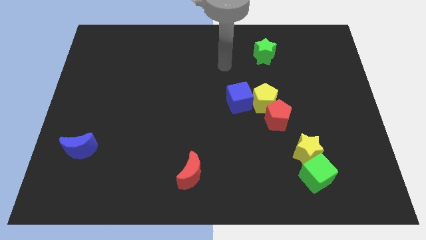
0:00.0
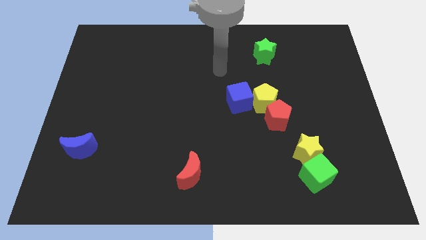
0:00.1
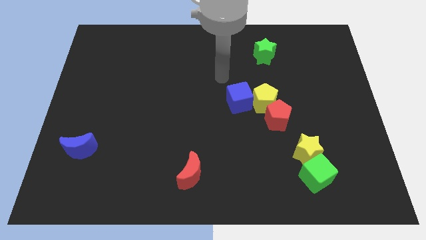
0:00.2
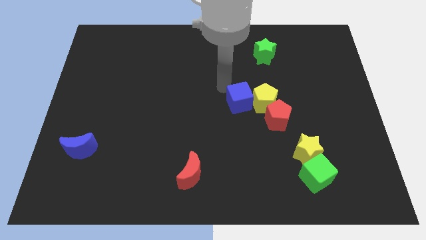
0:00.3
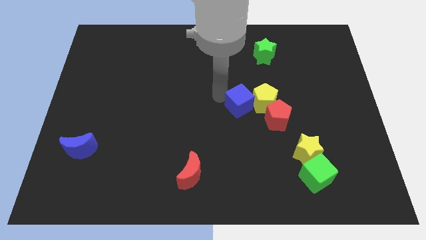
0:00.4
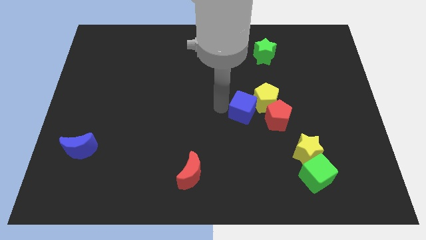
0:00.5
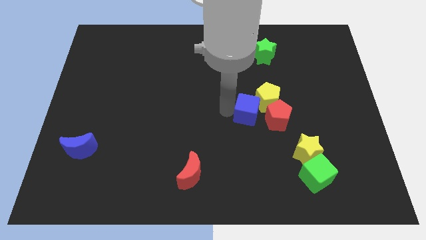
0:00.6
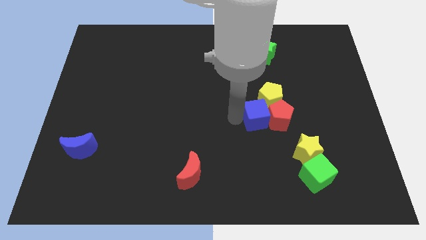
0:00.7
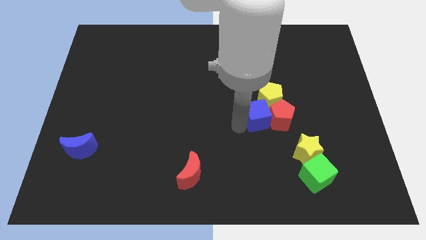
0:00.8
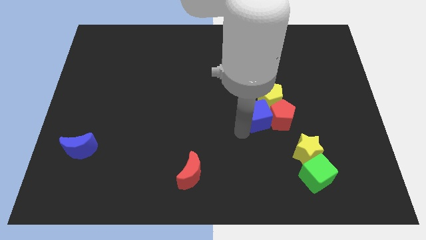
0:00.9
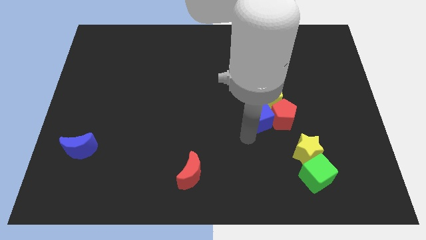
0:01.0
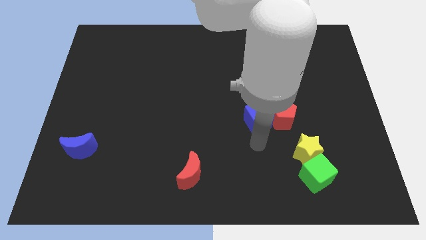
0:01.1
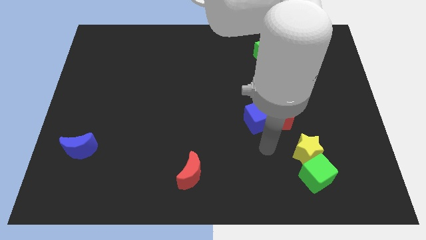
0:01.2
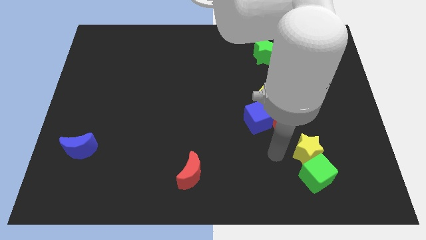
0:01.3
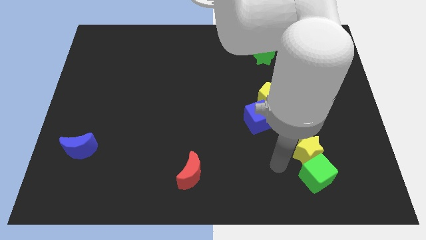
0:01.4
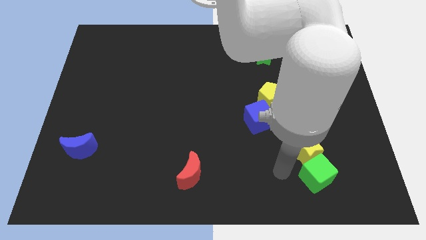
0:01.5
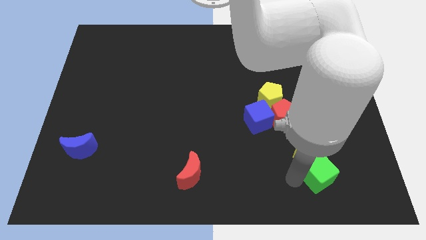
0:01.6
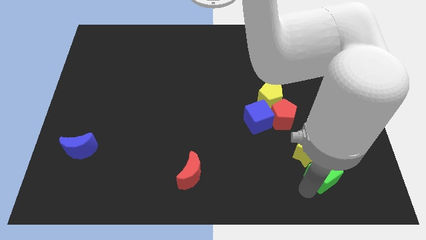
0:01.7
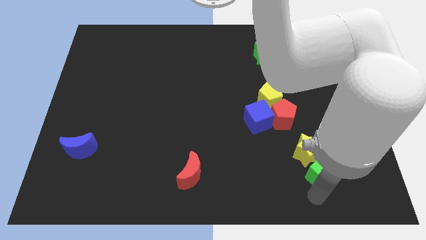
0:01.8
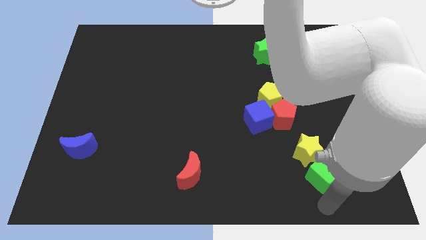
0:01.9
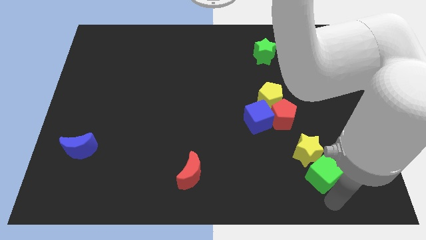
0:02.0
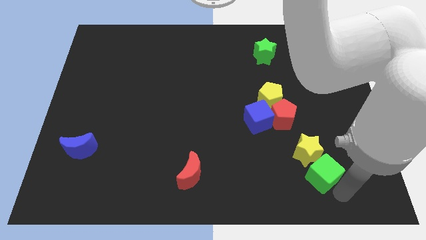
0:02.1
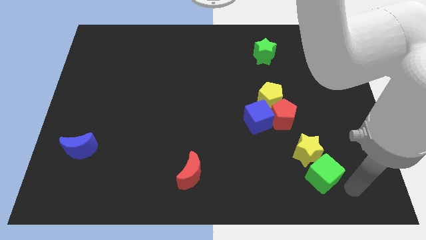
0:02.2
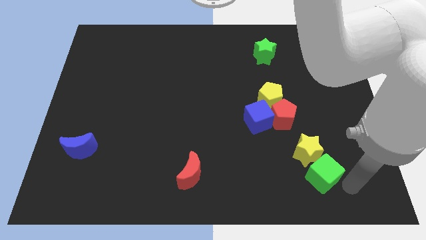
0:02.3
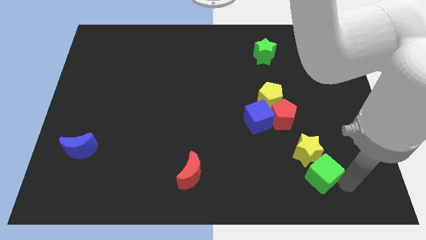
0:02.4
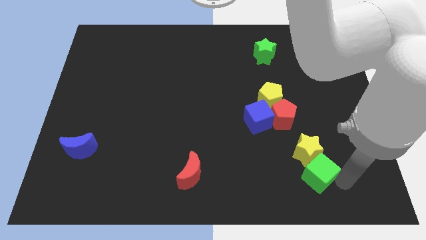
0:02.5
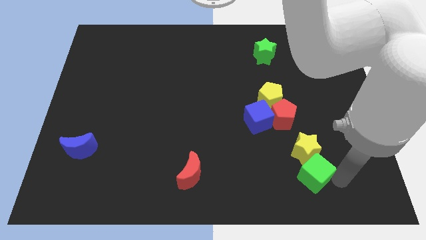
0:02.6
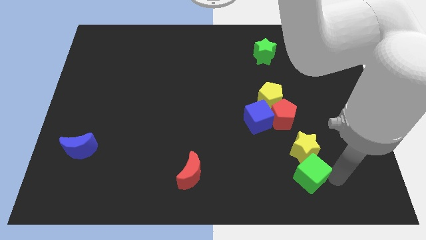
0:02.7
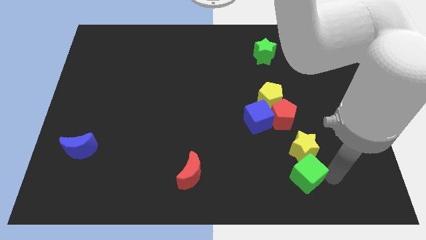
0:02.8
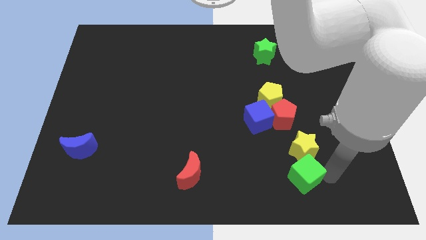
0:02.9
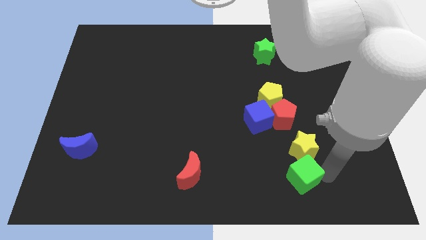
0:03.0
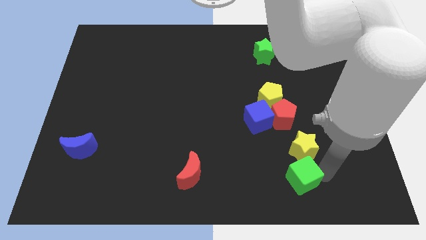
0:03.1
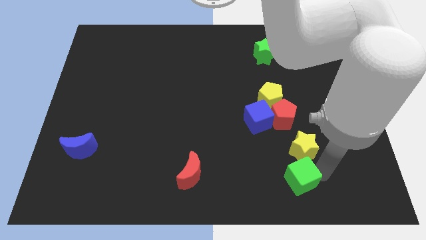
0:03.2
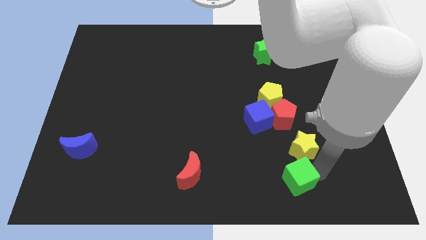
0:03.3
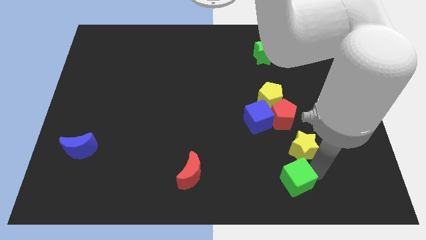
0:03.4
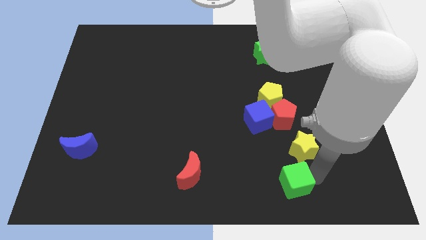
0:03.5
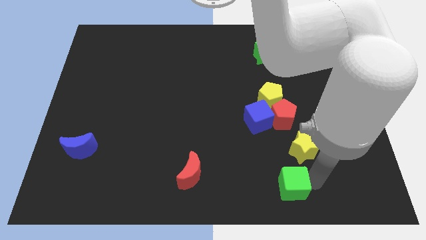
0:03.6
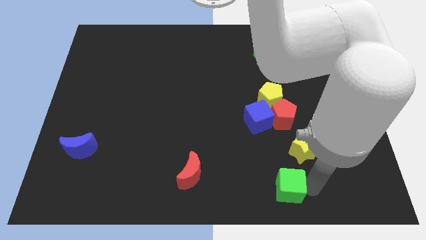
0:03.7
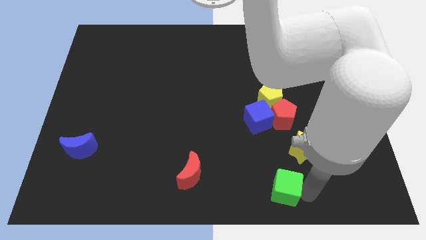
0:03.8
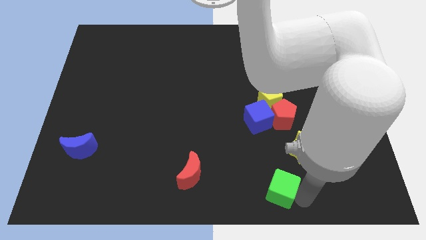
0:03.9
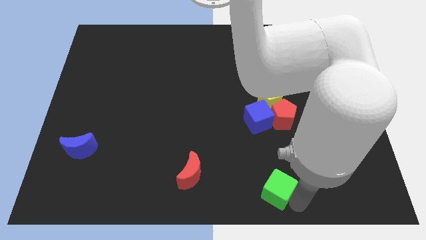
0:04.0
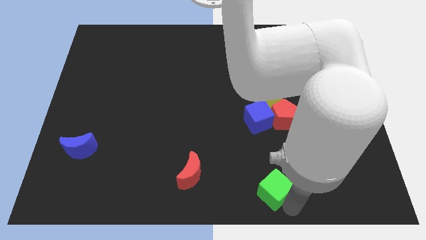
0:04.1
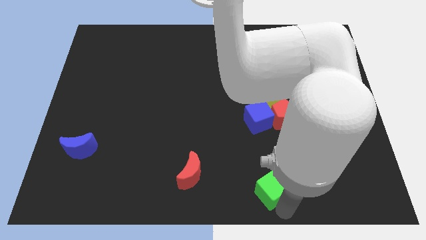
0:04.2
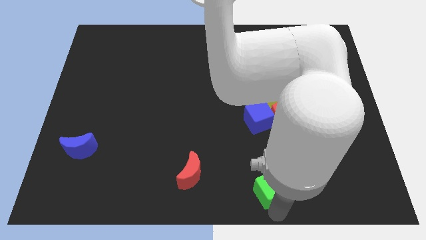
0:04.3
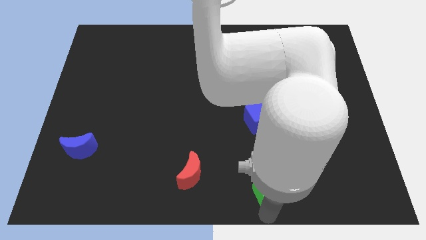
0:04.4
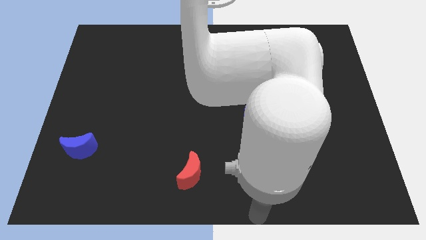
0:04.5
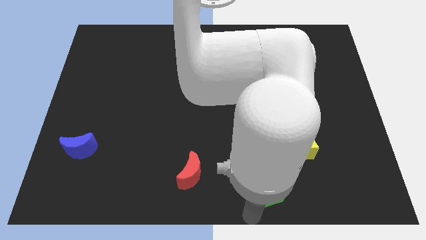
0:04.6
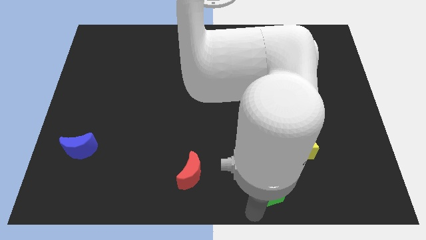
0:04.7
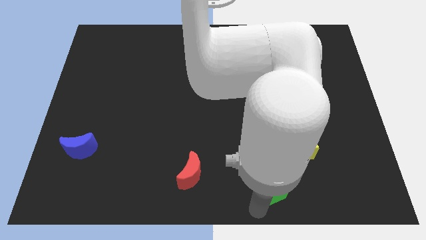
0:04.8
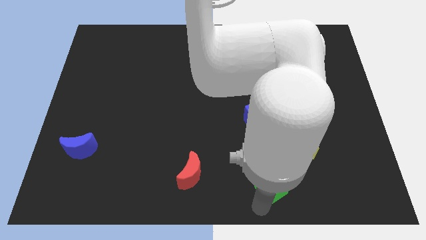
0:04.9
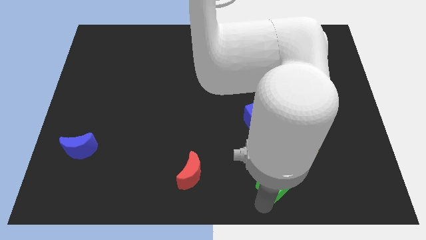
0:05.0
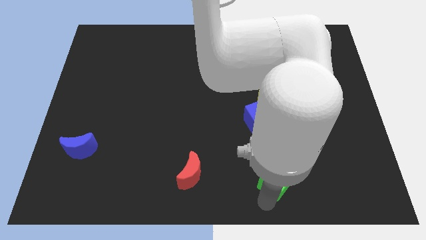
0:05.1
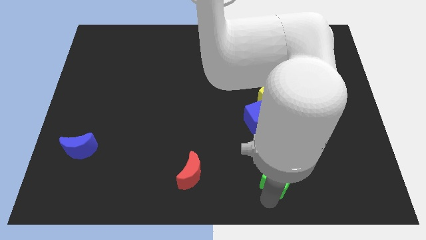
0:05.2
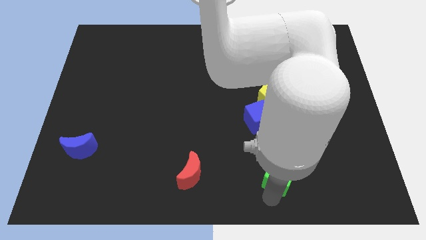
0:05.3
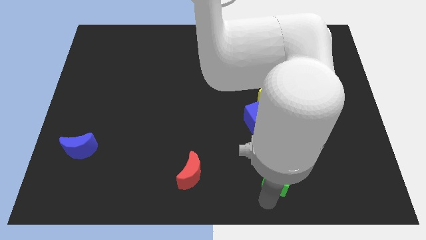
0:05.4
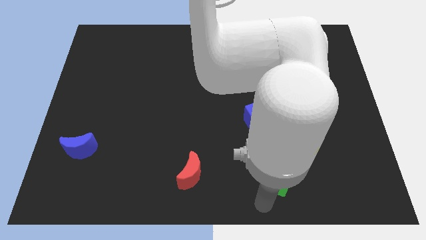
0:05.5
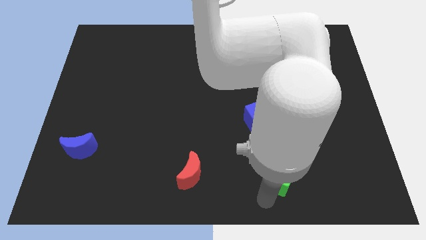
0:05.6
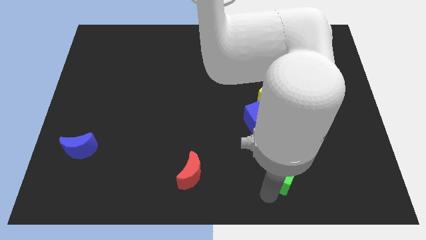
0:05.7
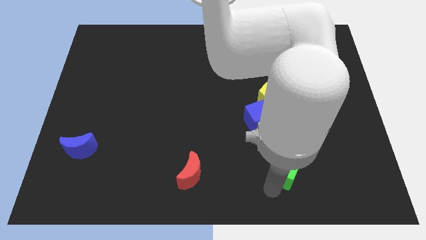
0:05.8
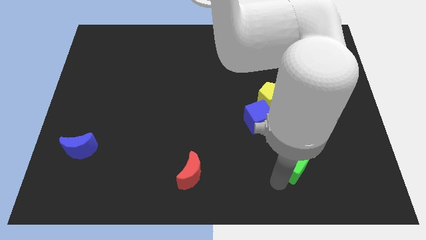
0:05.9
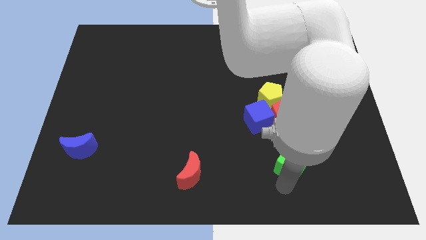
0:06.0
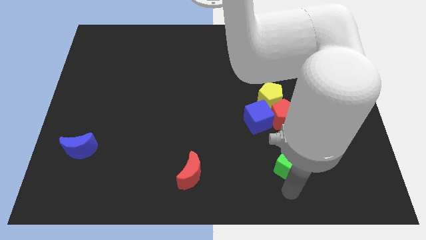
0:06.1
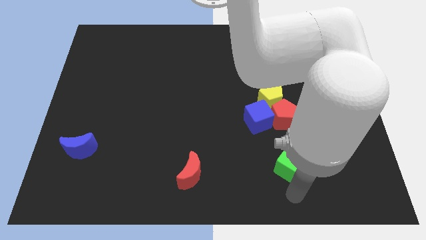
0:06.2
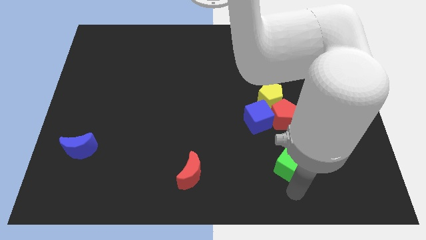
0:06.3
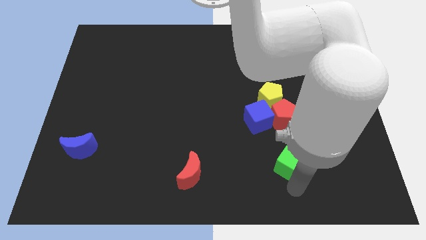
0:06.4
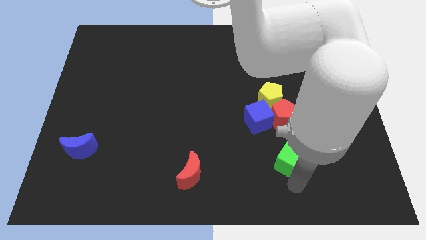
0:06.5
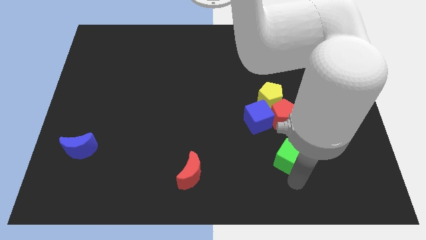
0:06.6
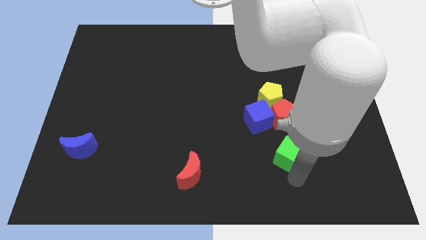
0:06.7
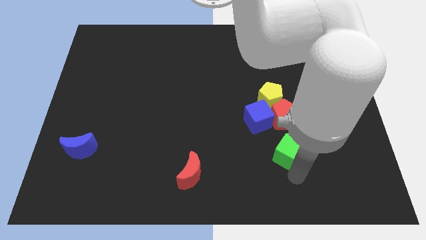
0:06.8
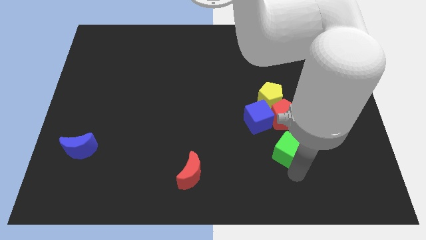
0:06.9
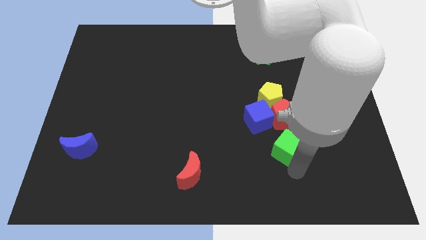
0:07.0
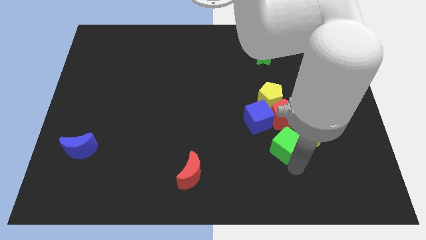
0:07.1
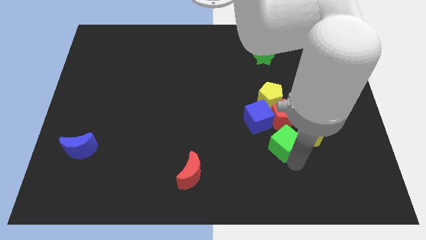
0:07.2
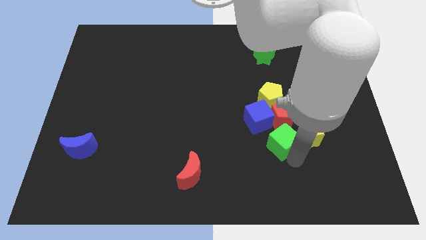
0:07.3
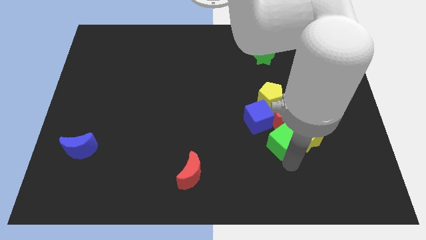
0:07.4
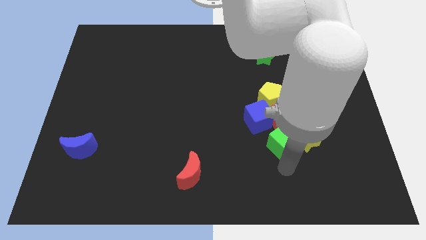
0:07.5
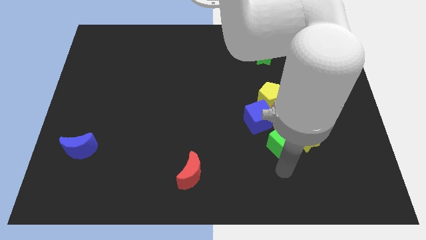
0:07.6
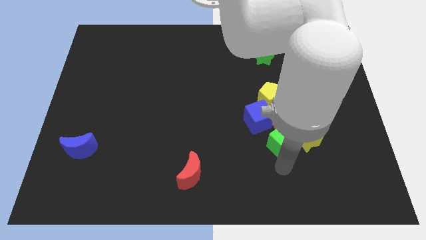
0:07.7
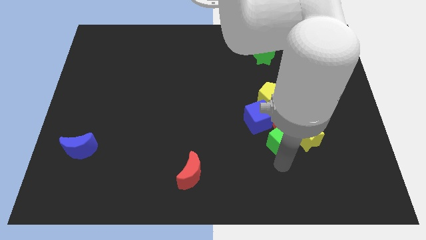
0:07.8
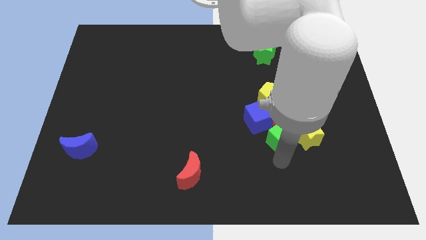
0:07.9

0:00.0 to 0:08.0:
slide the green cube close to the red pentagon
